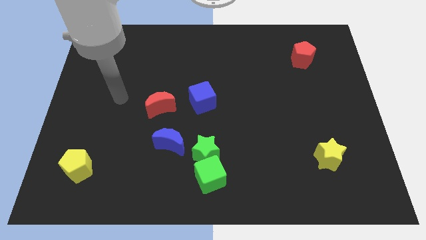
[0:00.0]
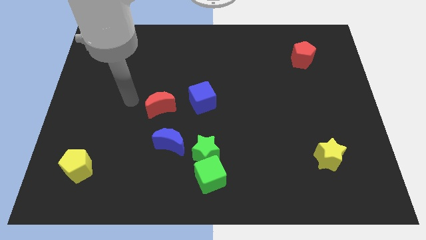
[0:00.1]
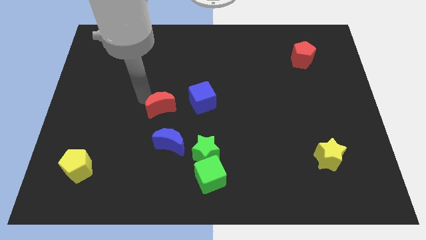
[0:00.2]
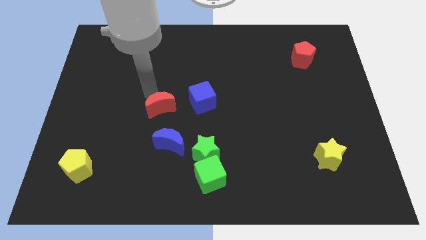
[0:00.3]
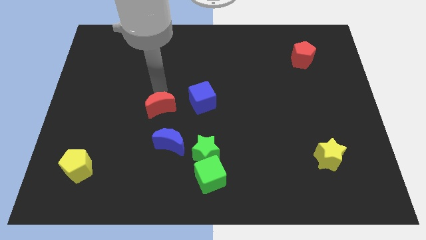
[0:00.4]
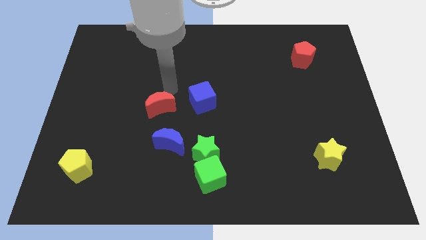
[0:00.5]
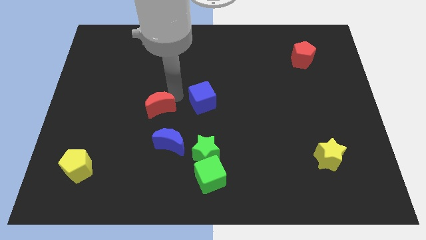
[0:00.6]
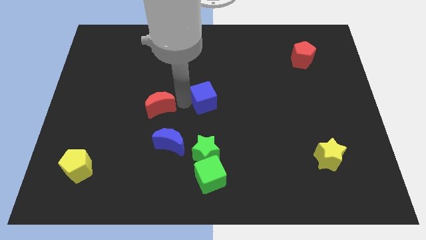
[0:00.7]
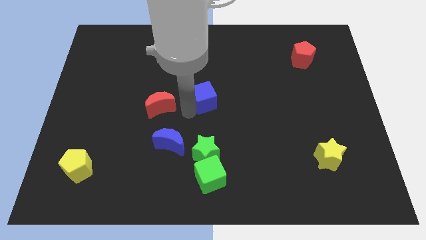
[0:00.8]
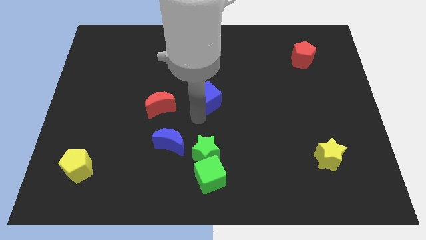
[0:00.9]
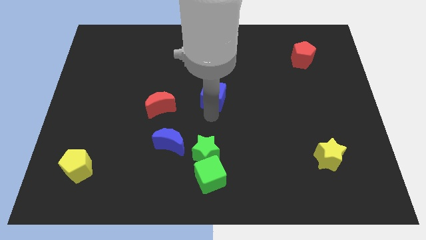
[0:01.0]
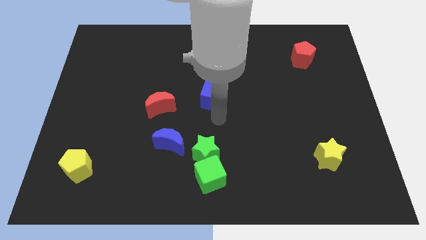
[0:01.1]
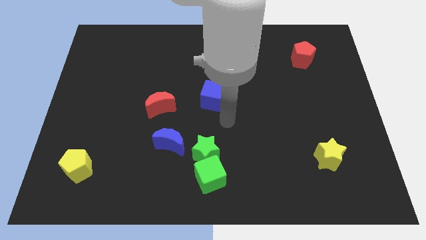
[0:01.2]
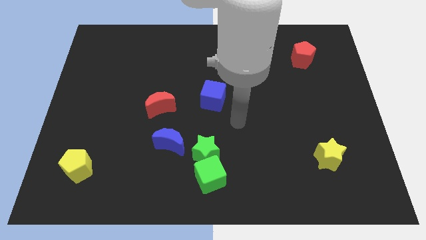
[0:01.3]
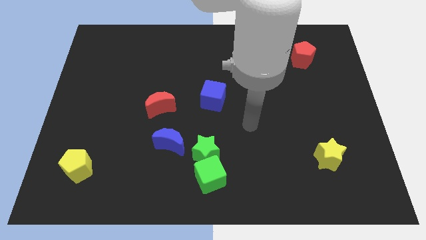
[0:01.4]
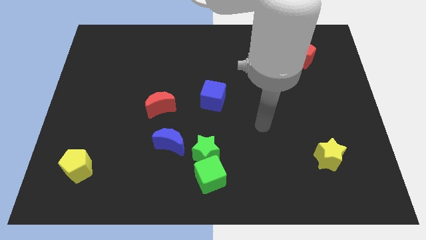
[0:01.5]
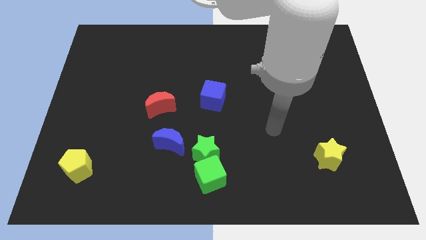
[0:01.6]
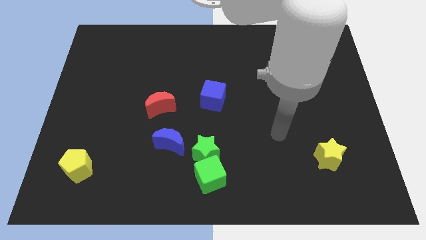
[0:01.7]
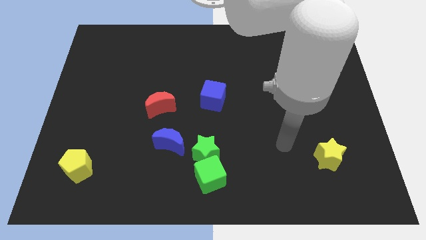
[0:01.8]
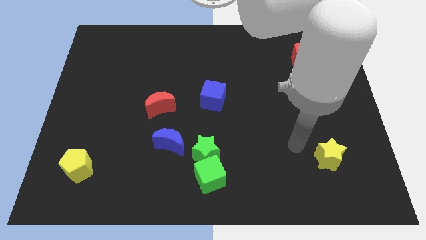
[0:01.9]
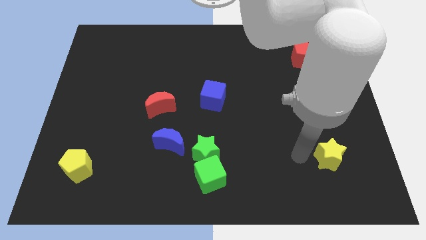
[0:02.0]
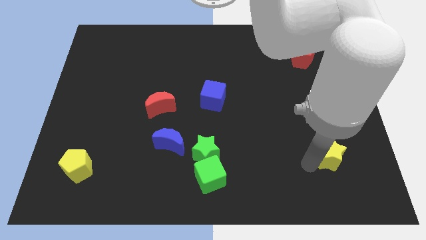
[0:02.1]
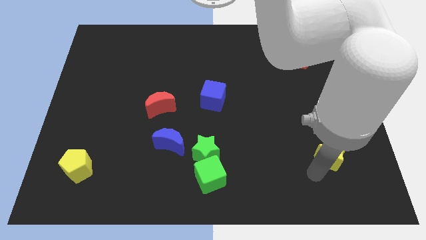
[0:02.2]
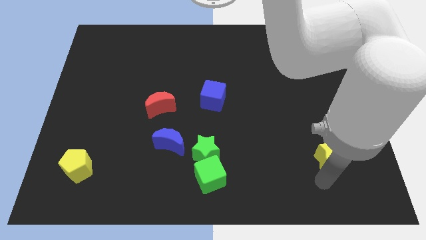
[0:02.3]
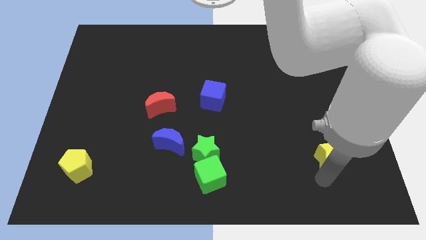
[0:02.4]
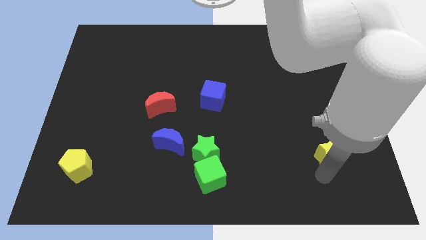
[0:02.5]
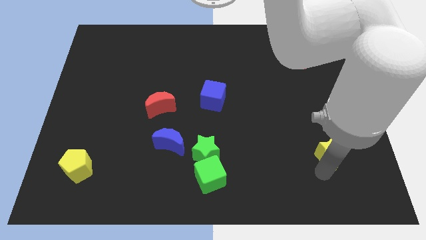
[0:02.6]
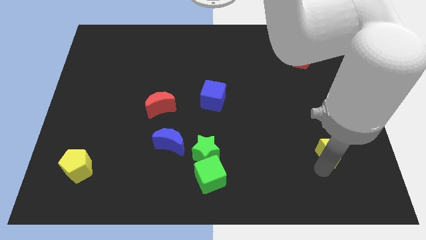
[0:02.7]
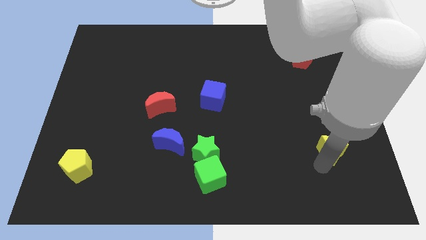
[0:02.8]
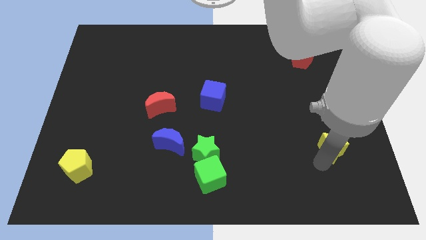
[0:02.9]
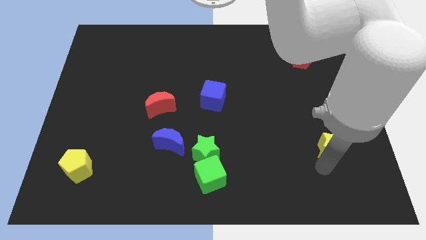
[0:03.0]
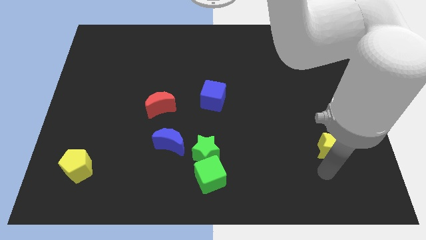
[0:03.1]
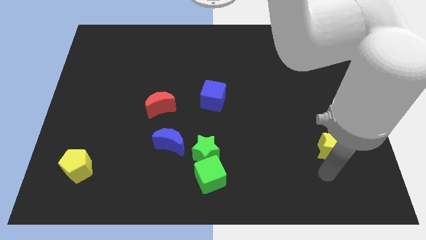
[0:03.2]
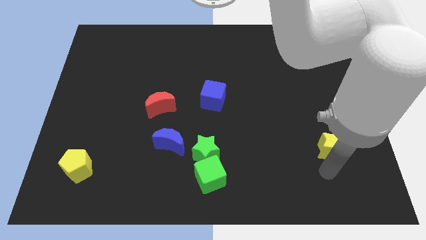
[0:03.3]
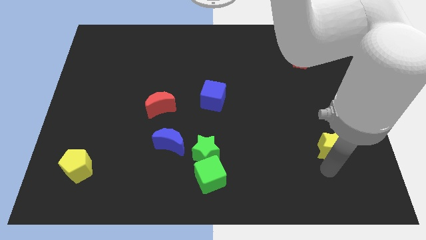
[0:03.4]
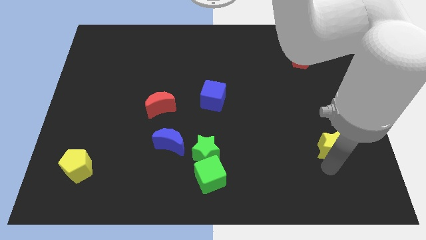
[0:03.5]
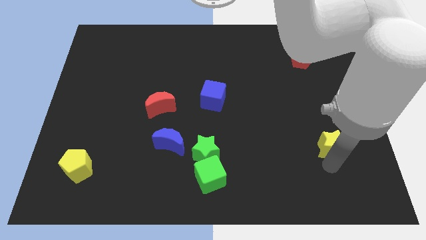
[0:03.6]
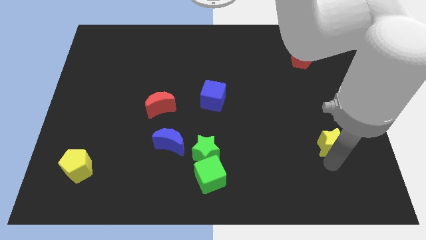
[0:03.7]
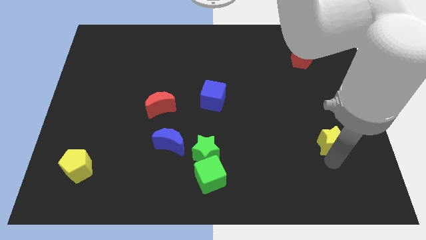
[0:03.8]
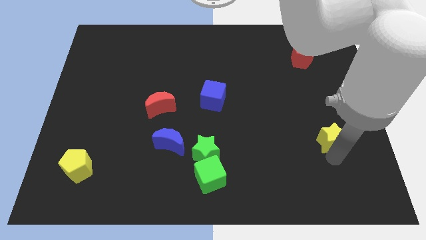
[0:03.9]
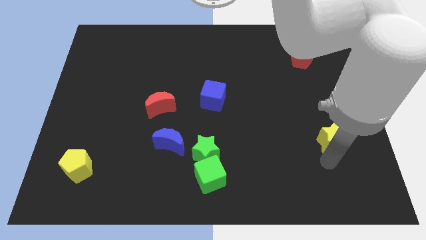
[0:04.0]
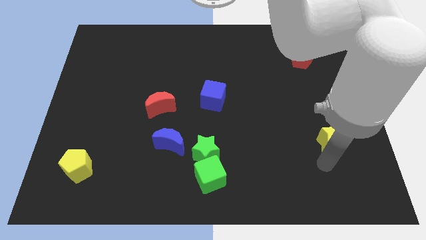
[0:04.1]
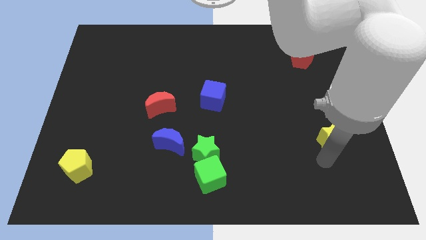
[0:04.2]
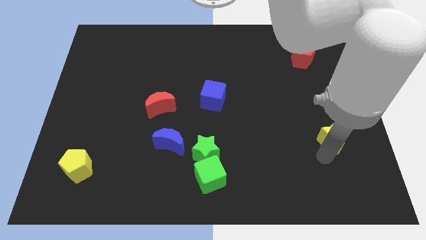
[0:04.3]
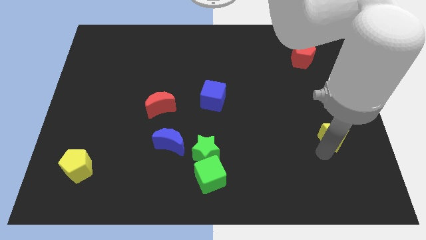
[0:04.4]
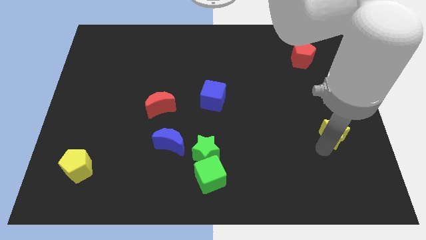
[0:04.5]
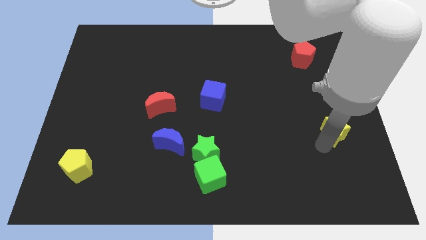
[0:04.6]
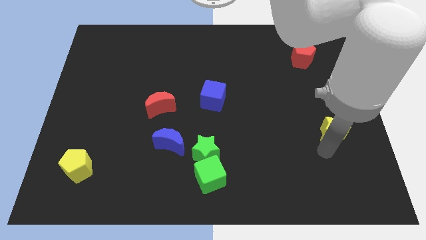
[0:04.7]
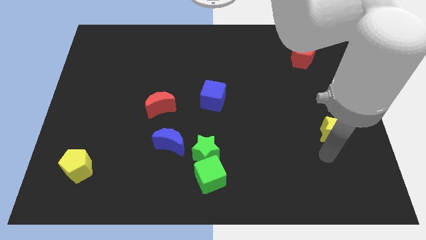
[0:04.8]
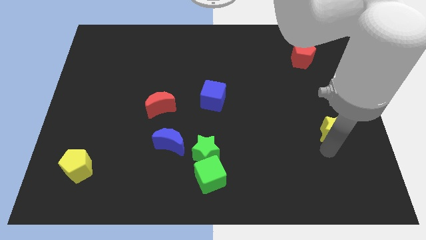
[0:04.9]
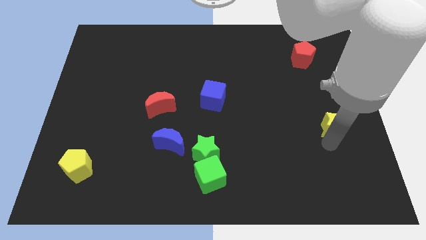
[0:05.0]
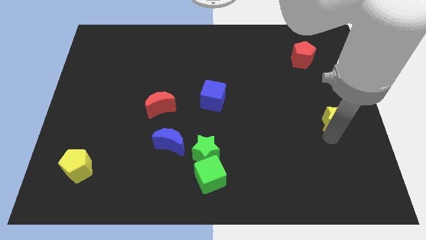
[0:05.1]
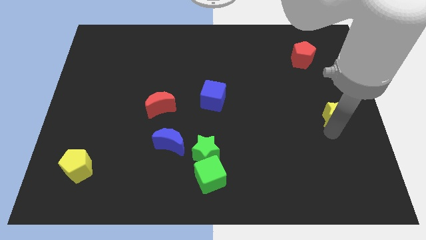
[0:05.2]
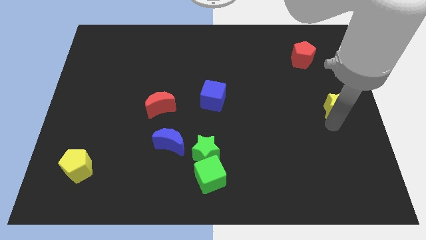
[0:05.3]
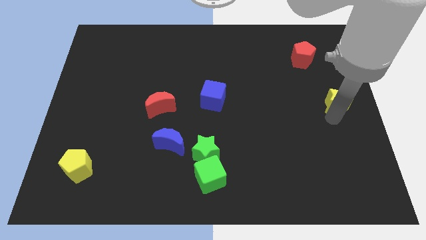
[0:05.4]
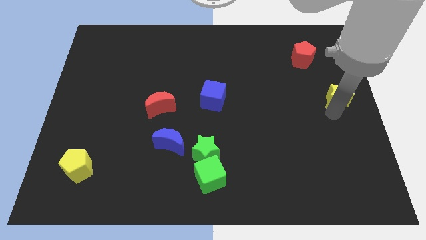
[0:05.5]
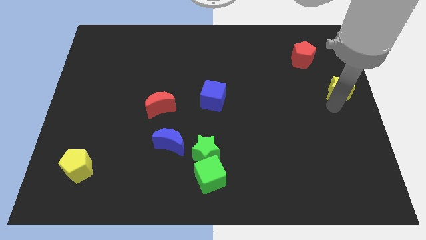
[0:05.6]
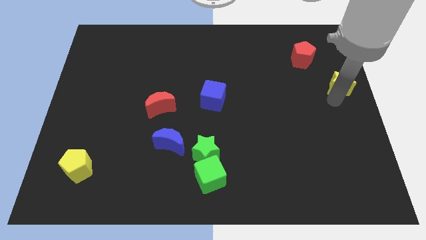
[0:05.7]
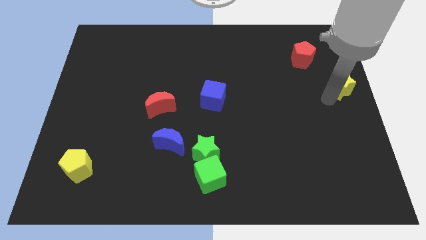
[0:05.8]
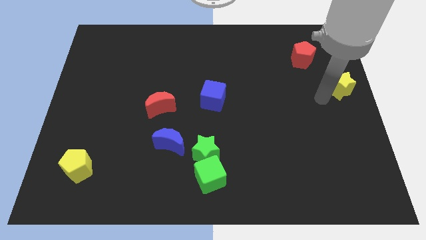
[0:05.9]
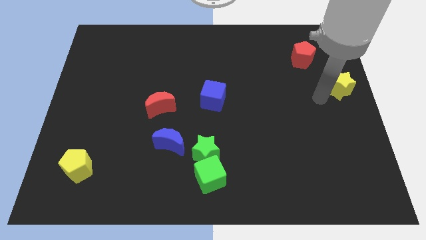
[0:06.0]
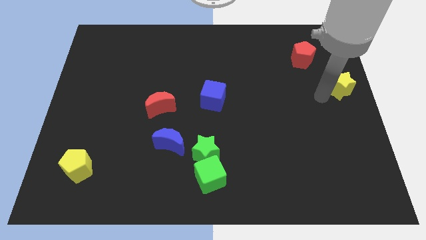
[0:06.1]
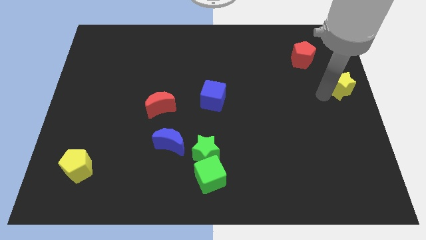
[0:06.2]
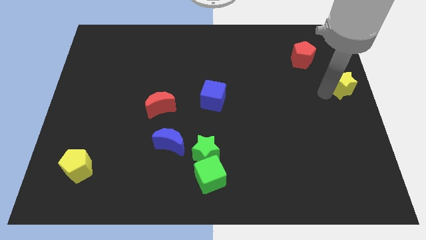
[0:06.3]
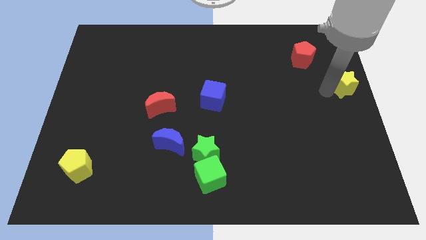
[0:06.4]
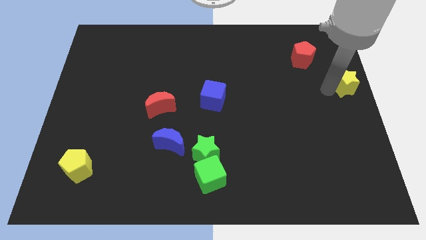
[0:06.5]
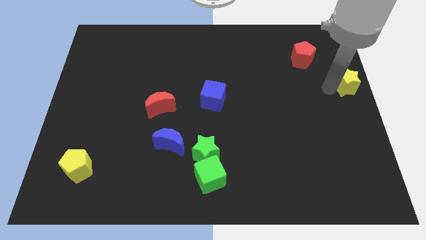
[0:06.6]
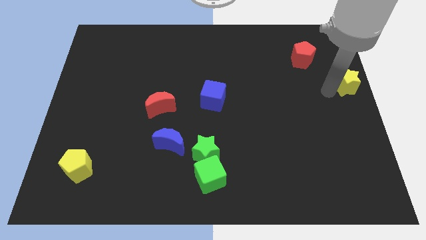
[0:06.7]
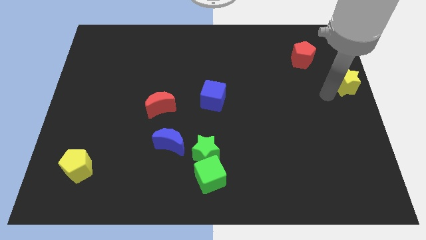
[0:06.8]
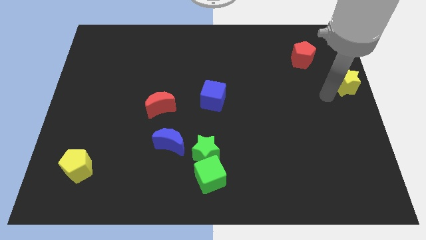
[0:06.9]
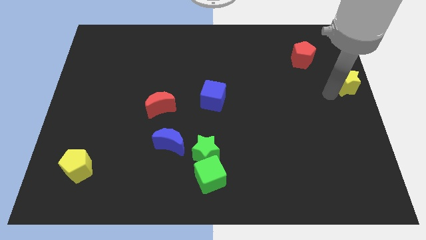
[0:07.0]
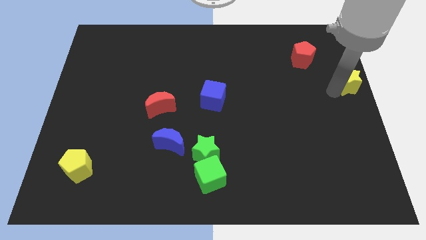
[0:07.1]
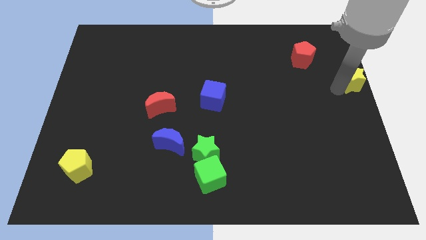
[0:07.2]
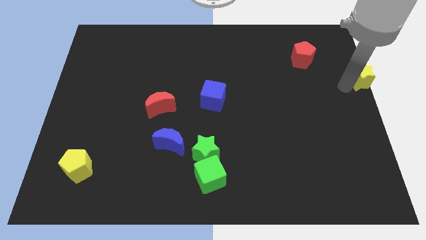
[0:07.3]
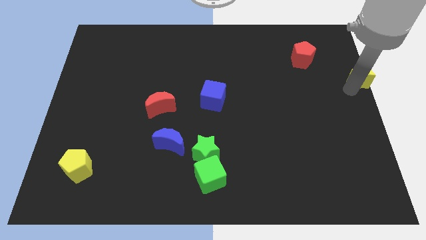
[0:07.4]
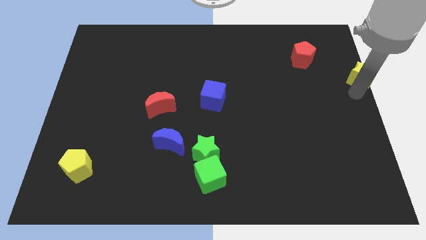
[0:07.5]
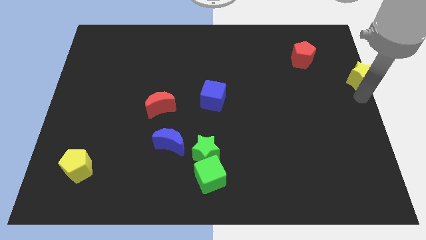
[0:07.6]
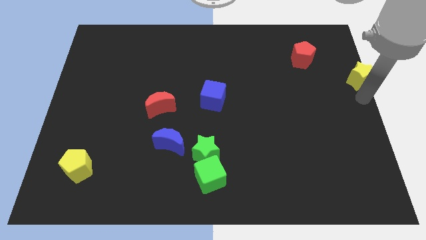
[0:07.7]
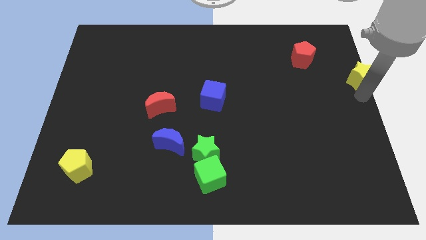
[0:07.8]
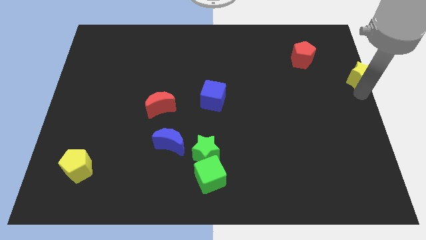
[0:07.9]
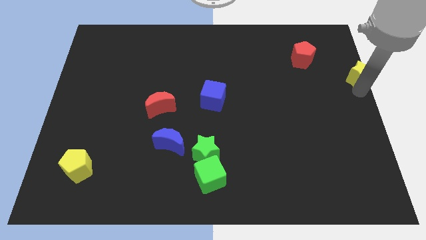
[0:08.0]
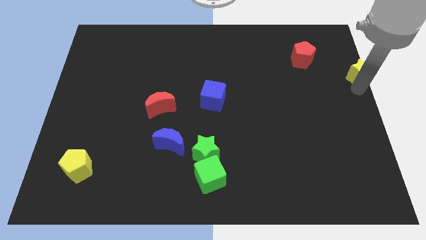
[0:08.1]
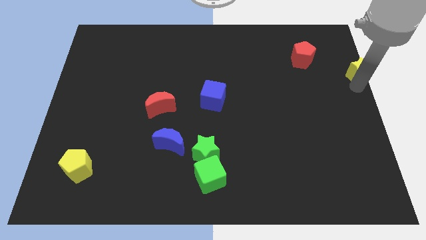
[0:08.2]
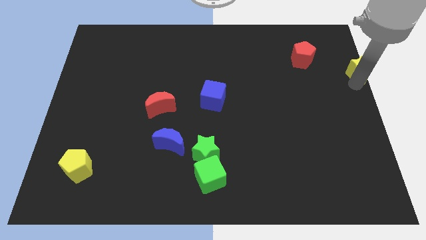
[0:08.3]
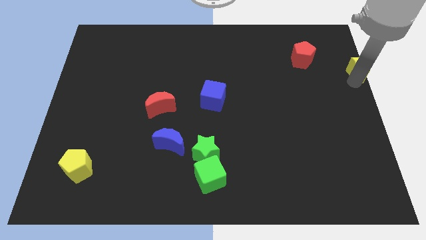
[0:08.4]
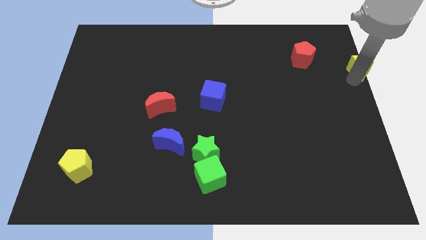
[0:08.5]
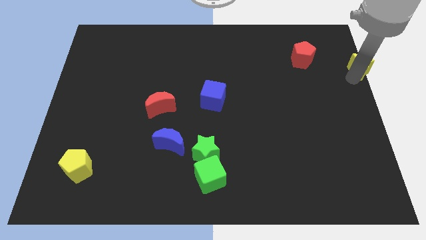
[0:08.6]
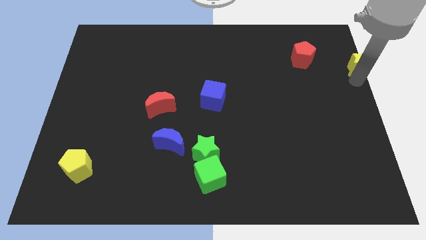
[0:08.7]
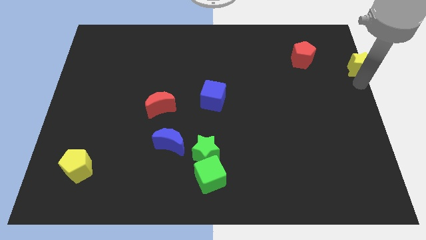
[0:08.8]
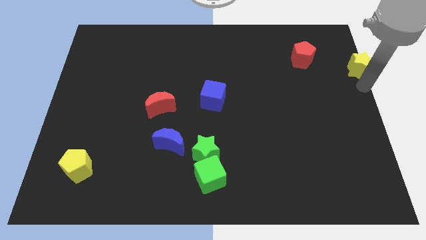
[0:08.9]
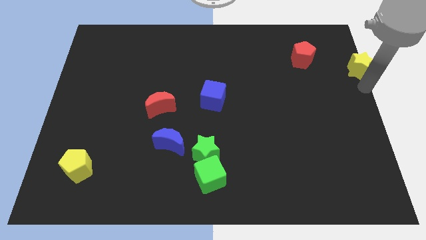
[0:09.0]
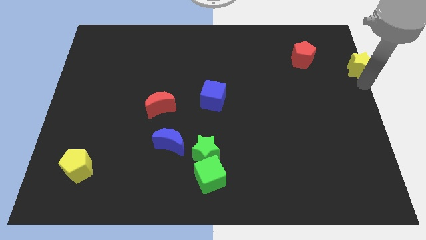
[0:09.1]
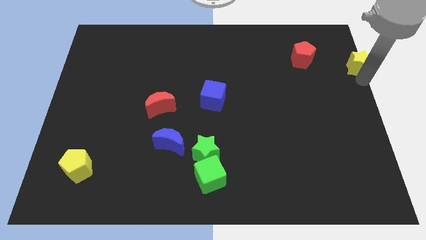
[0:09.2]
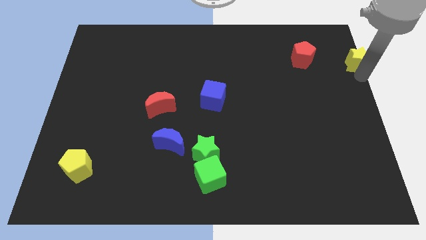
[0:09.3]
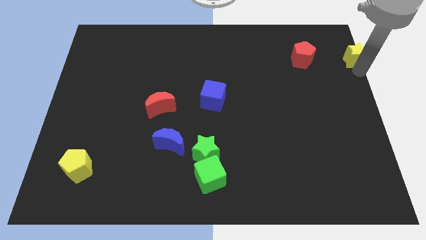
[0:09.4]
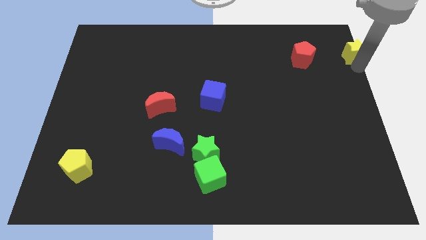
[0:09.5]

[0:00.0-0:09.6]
move the yellow star to the upper right corner
